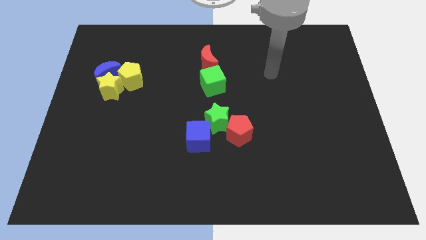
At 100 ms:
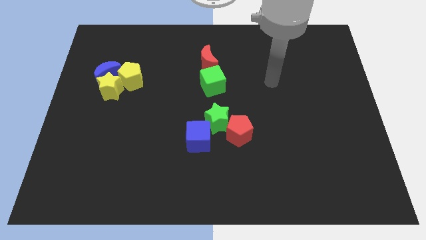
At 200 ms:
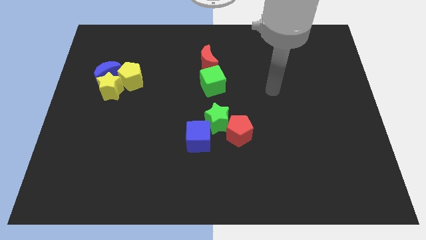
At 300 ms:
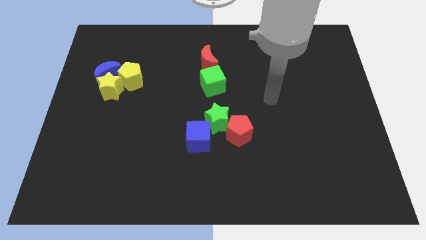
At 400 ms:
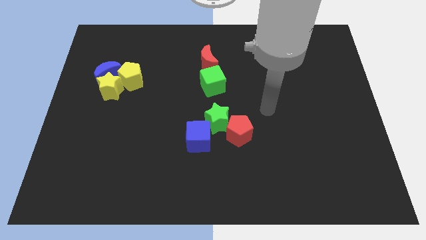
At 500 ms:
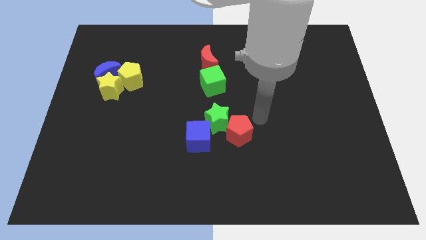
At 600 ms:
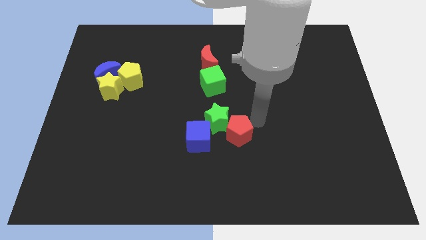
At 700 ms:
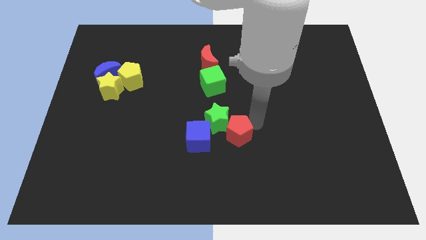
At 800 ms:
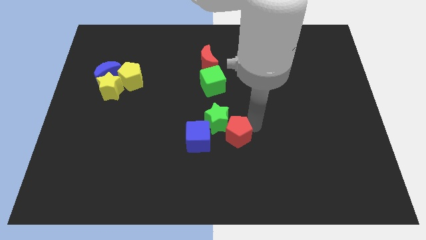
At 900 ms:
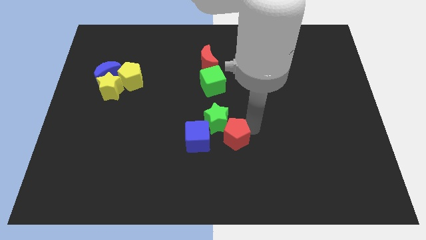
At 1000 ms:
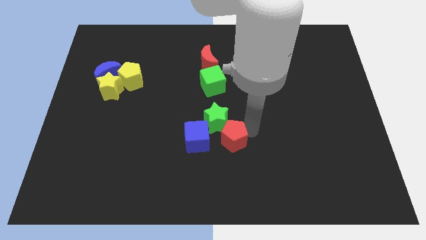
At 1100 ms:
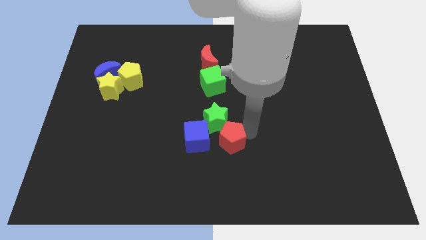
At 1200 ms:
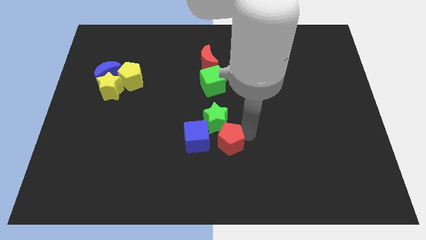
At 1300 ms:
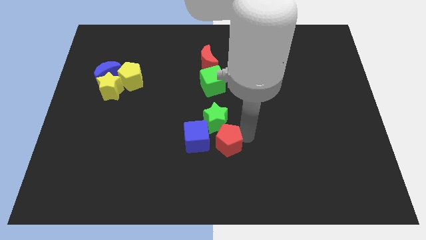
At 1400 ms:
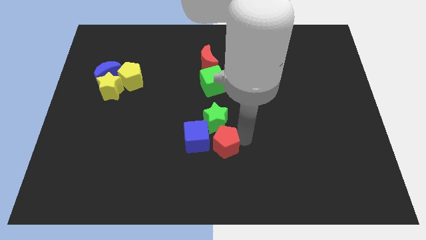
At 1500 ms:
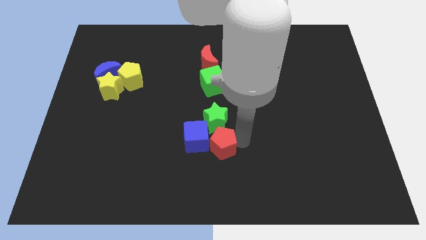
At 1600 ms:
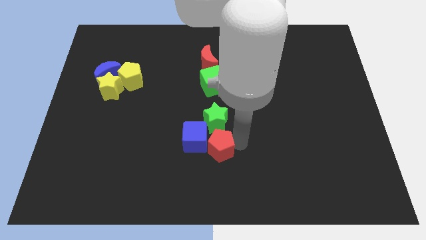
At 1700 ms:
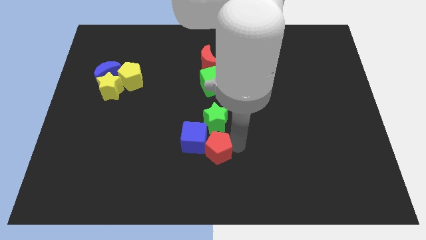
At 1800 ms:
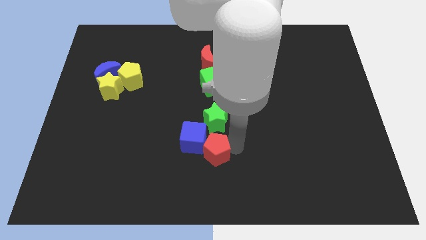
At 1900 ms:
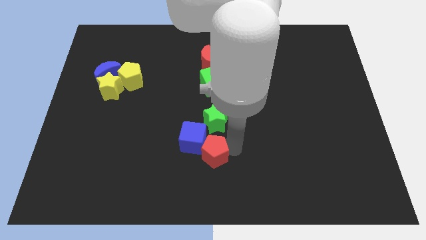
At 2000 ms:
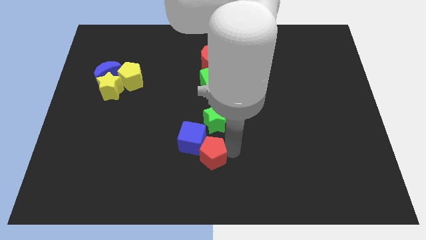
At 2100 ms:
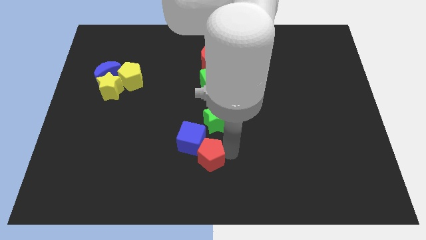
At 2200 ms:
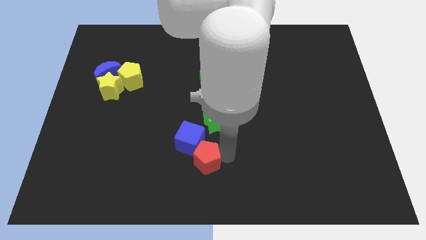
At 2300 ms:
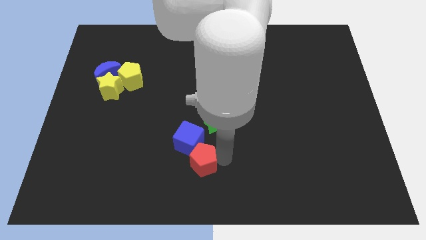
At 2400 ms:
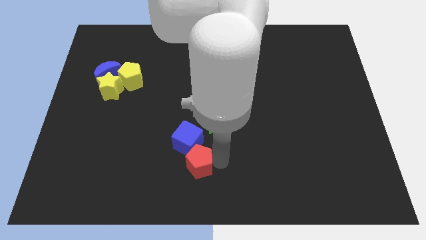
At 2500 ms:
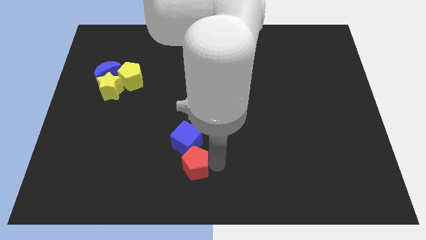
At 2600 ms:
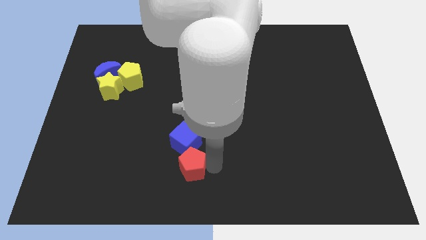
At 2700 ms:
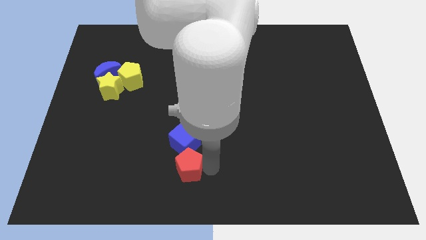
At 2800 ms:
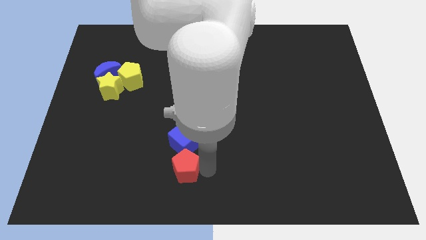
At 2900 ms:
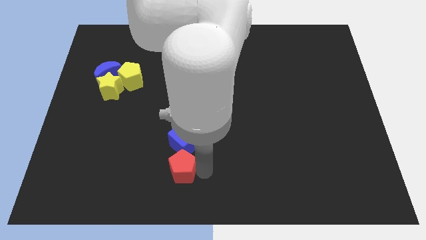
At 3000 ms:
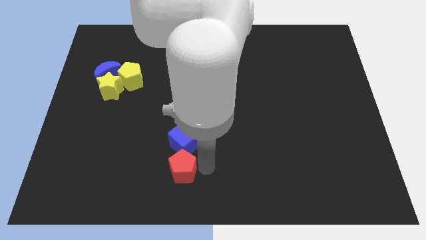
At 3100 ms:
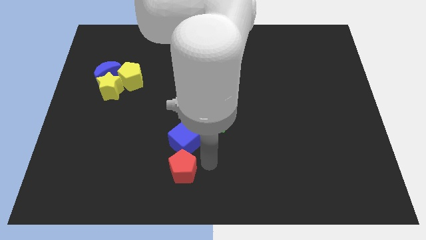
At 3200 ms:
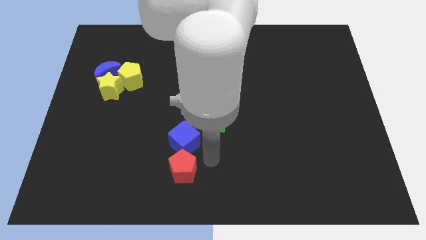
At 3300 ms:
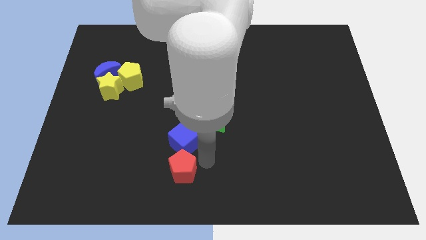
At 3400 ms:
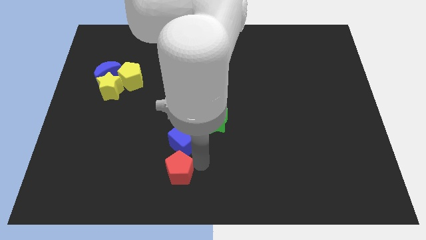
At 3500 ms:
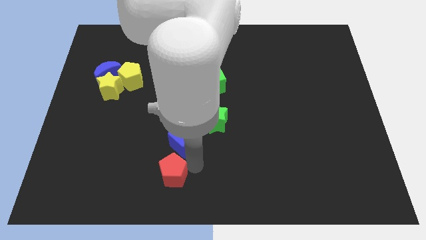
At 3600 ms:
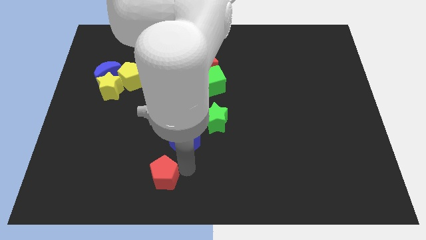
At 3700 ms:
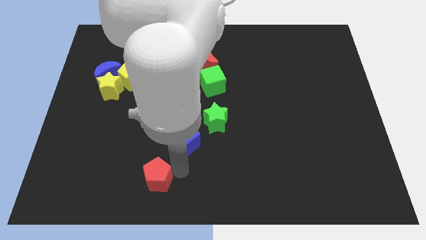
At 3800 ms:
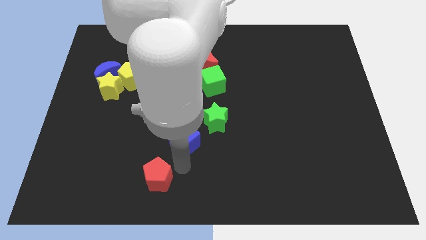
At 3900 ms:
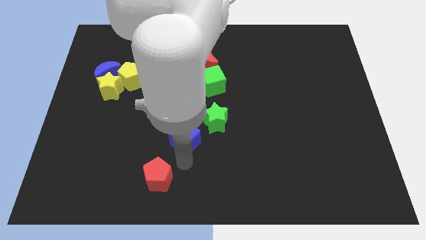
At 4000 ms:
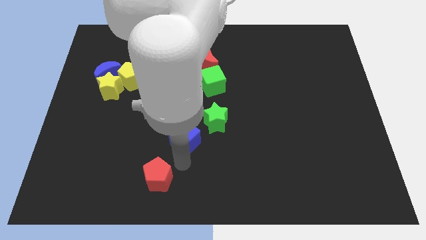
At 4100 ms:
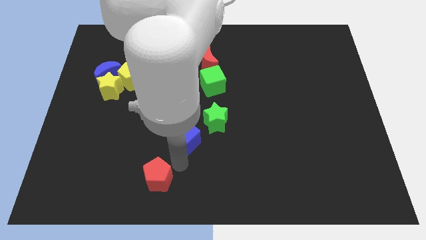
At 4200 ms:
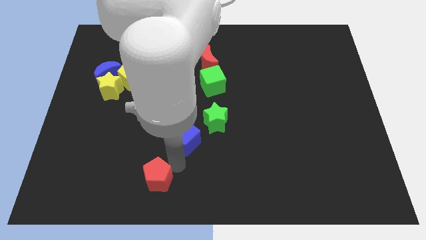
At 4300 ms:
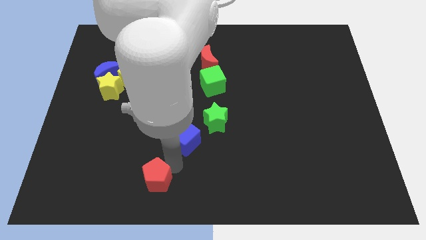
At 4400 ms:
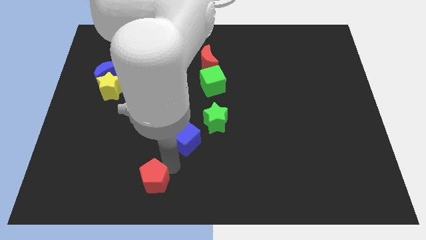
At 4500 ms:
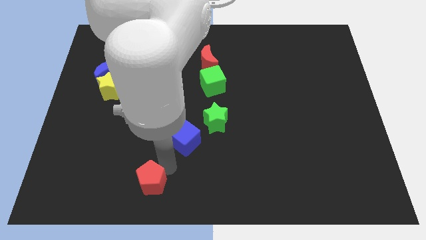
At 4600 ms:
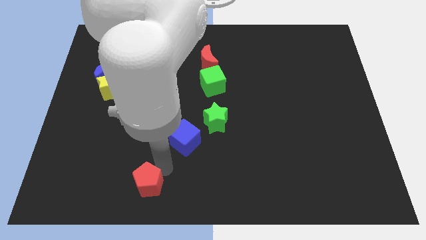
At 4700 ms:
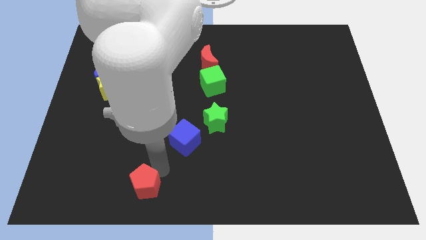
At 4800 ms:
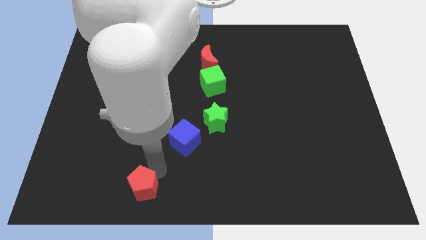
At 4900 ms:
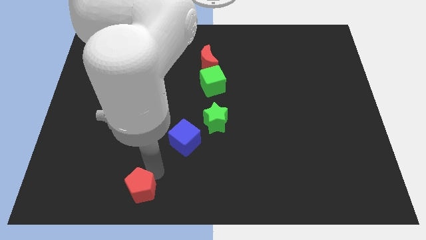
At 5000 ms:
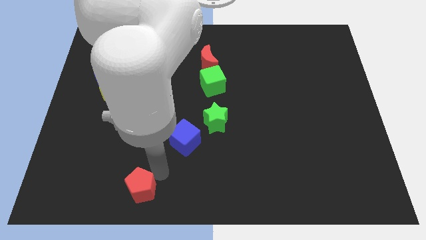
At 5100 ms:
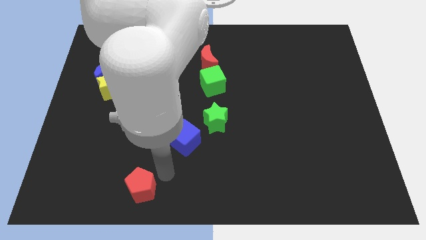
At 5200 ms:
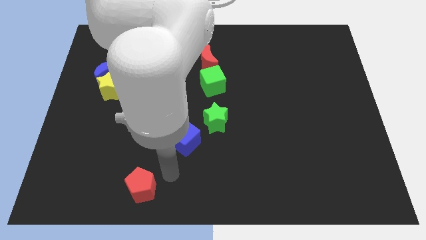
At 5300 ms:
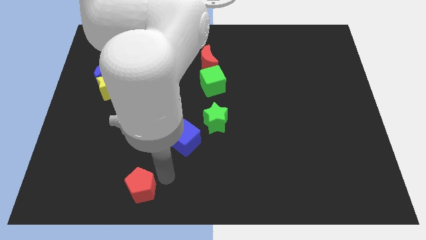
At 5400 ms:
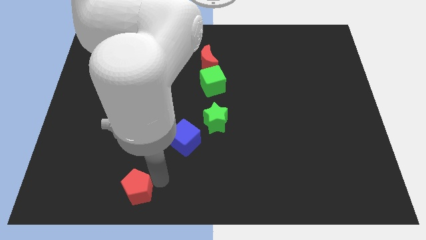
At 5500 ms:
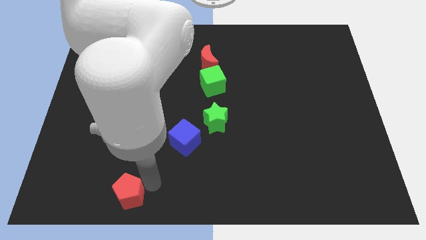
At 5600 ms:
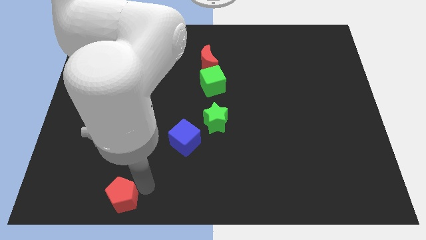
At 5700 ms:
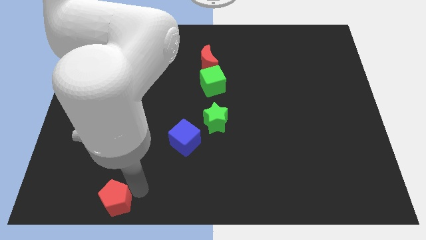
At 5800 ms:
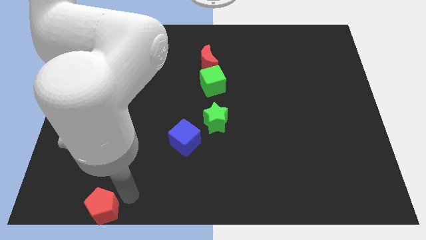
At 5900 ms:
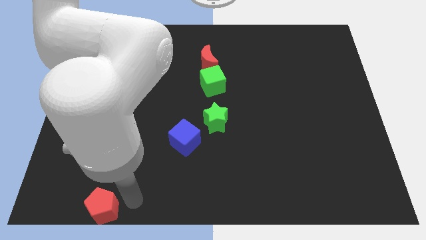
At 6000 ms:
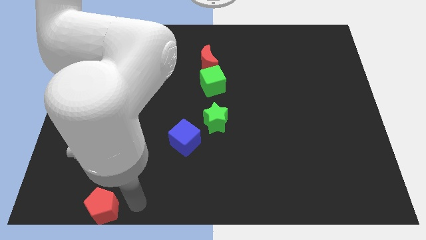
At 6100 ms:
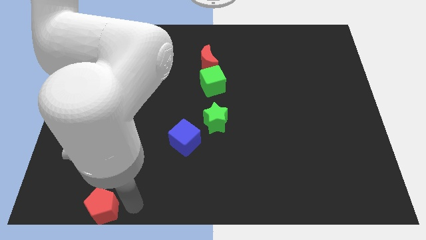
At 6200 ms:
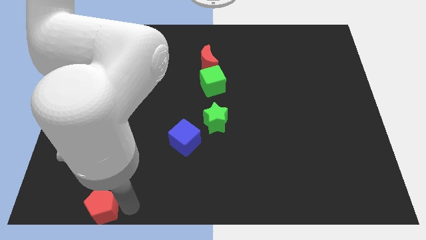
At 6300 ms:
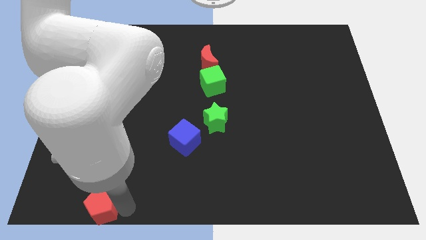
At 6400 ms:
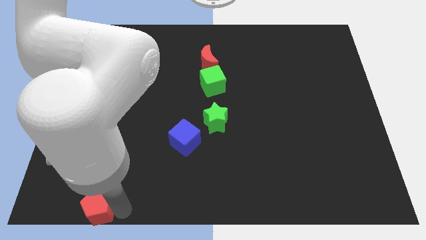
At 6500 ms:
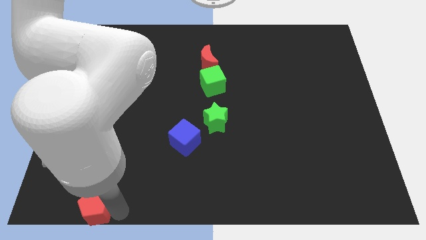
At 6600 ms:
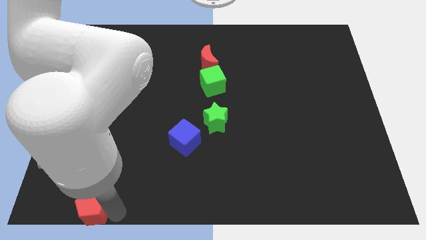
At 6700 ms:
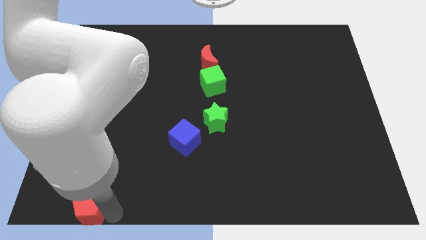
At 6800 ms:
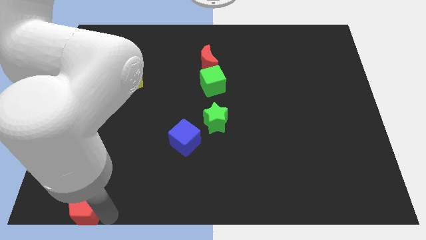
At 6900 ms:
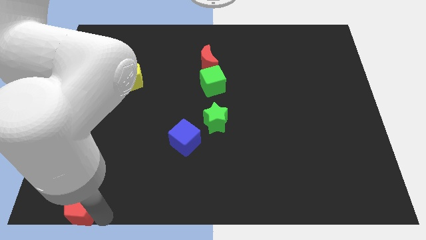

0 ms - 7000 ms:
push the red pentagon to the lower left corner
